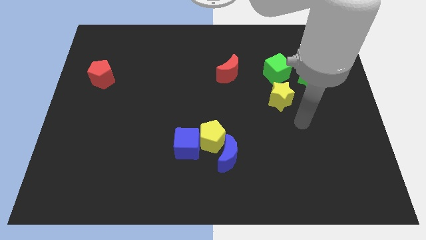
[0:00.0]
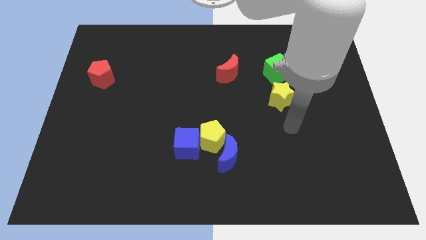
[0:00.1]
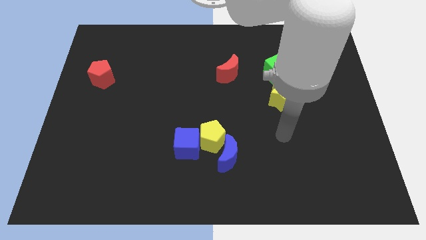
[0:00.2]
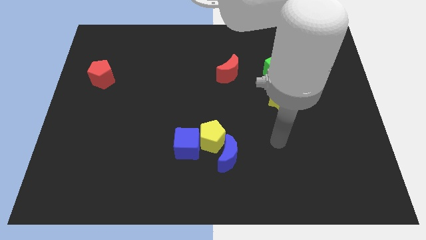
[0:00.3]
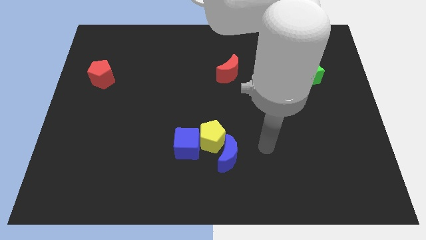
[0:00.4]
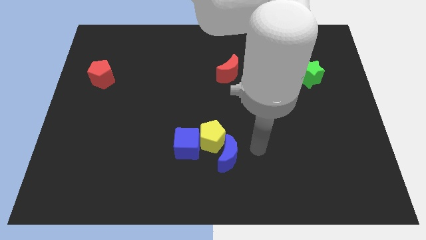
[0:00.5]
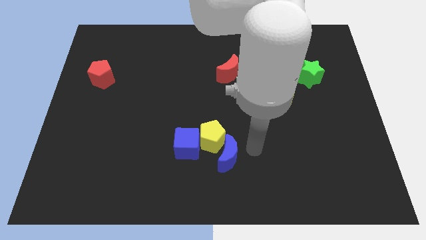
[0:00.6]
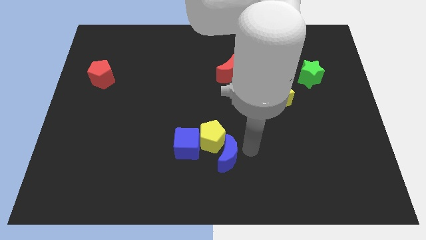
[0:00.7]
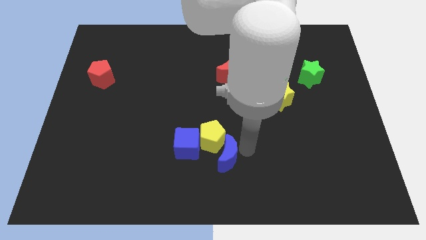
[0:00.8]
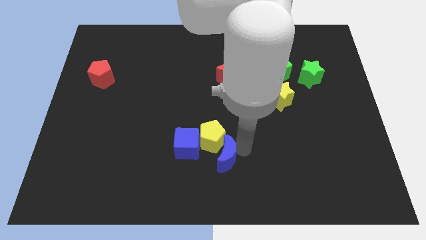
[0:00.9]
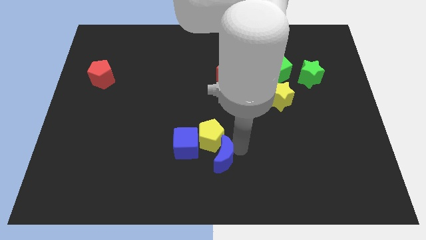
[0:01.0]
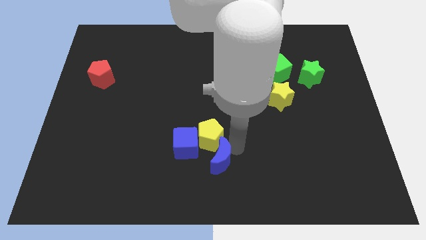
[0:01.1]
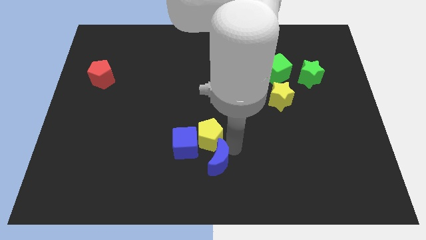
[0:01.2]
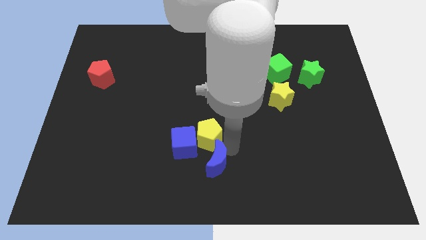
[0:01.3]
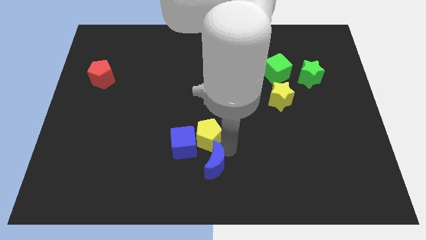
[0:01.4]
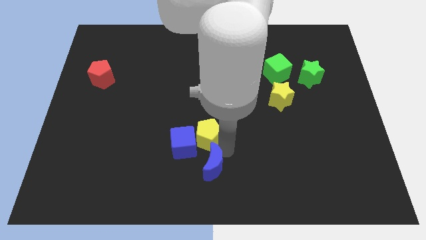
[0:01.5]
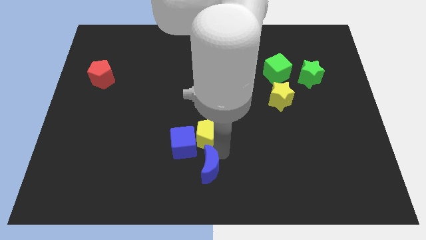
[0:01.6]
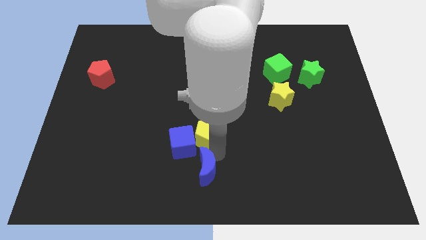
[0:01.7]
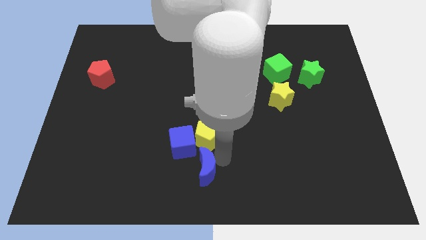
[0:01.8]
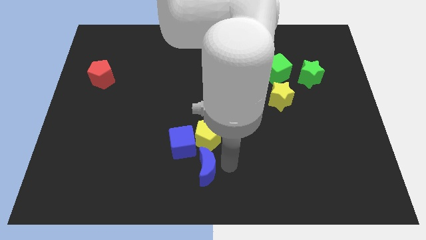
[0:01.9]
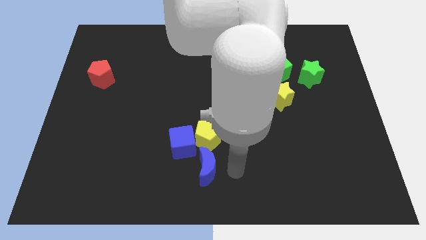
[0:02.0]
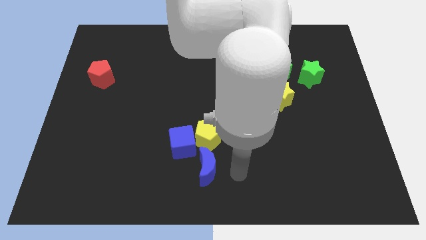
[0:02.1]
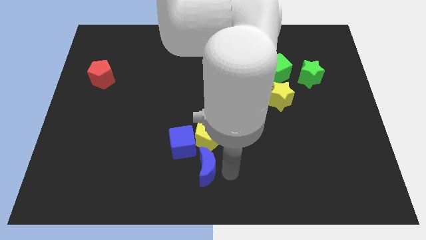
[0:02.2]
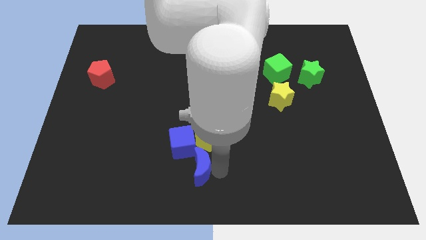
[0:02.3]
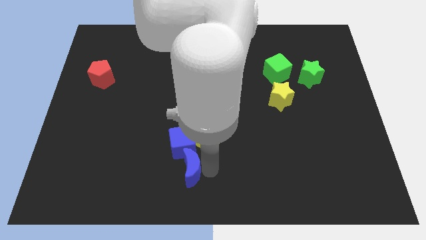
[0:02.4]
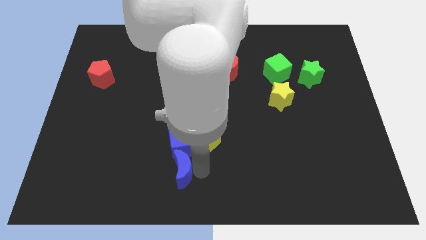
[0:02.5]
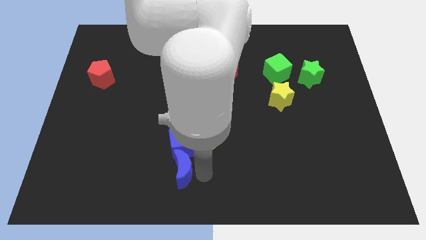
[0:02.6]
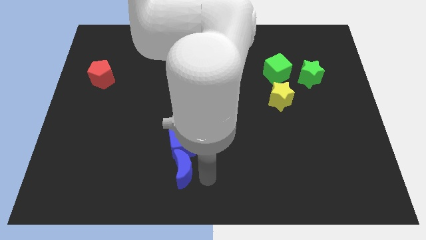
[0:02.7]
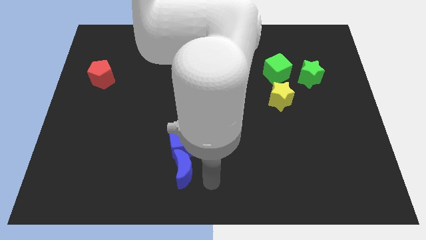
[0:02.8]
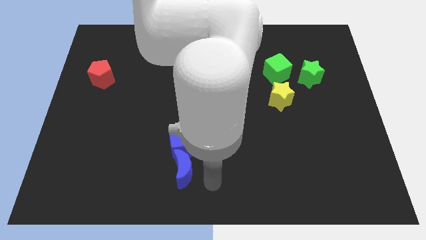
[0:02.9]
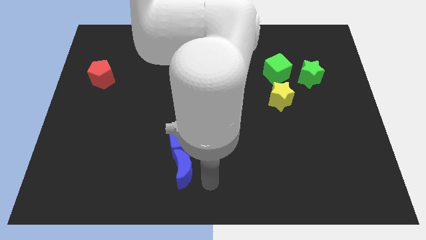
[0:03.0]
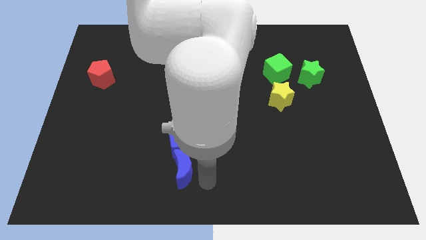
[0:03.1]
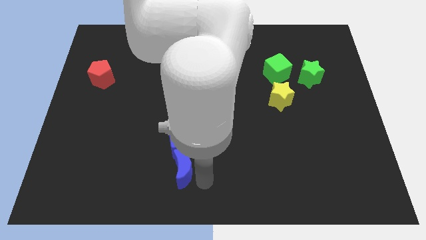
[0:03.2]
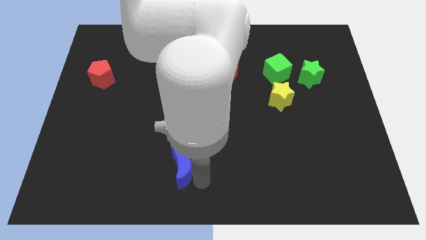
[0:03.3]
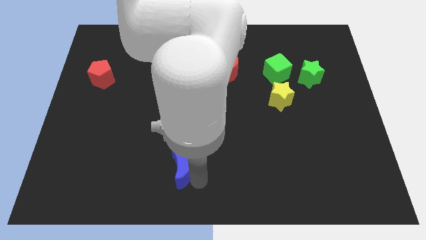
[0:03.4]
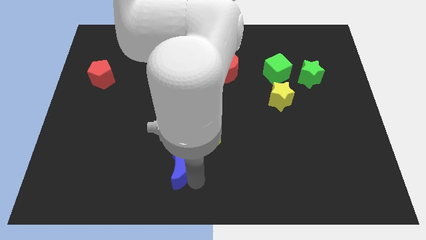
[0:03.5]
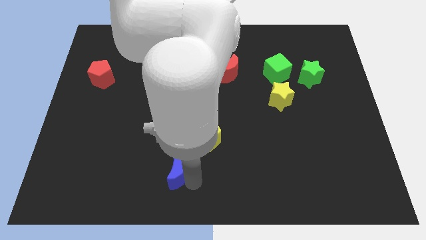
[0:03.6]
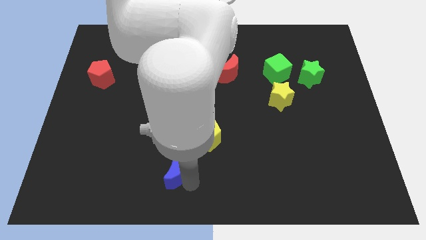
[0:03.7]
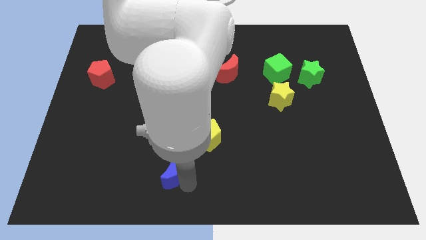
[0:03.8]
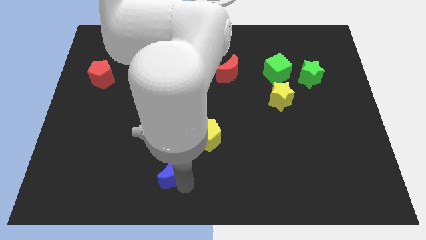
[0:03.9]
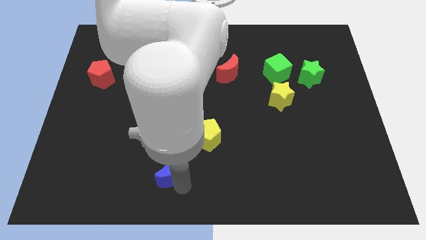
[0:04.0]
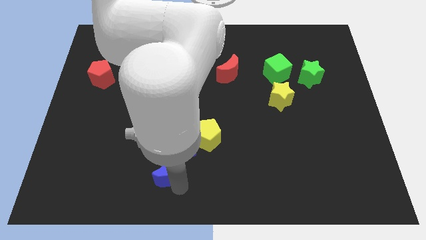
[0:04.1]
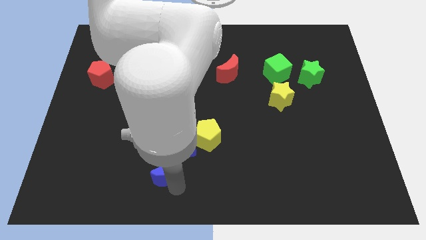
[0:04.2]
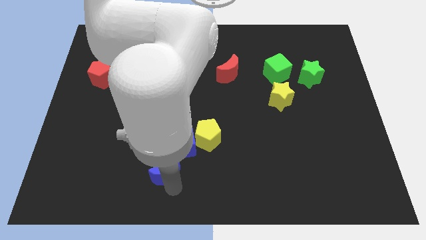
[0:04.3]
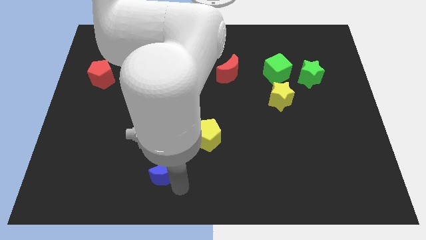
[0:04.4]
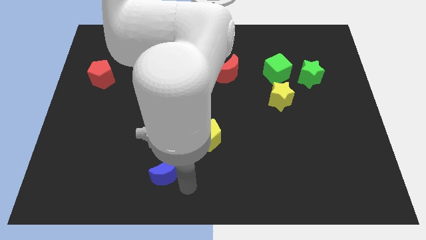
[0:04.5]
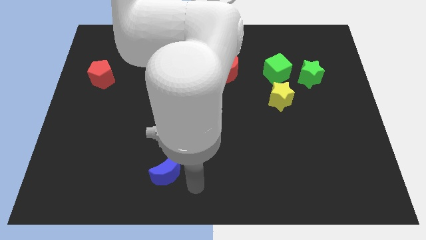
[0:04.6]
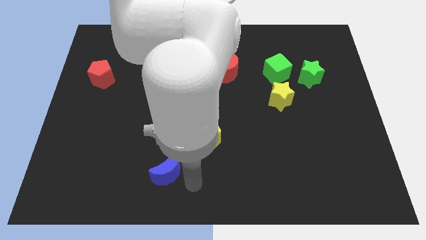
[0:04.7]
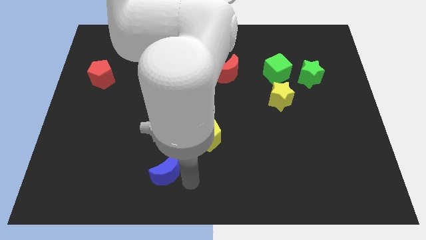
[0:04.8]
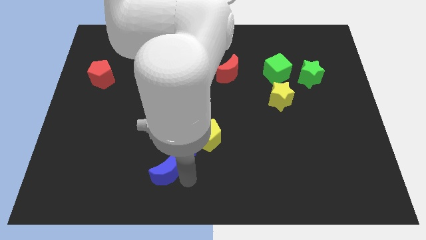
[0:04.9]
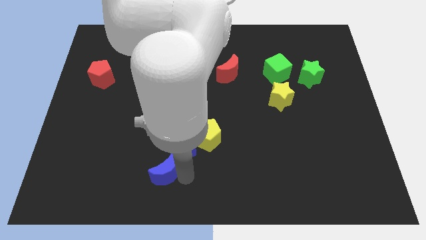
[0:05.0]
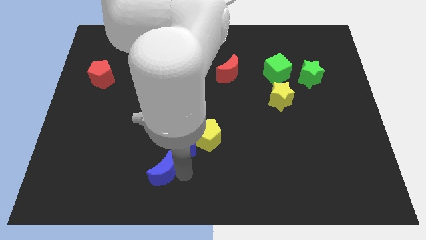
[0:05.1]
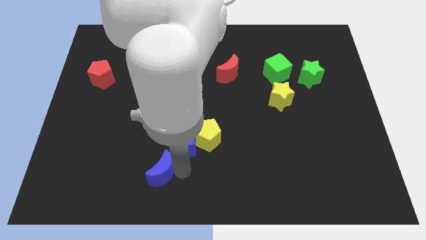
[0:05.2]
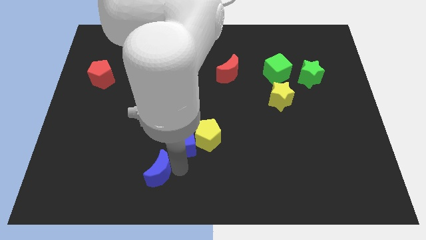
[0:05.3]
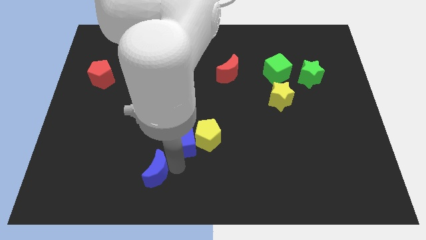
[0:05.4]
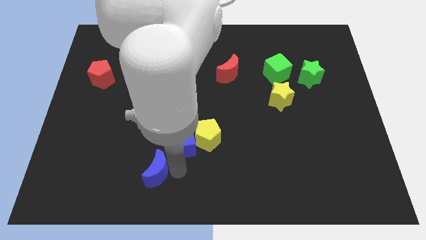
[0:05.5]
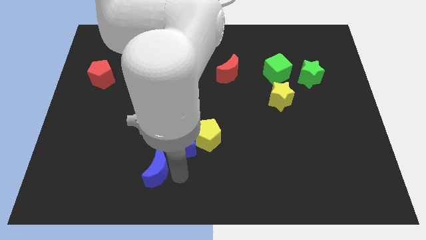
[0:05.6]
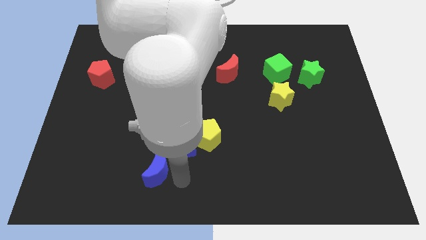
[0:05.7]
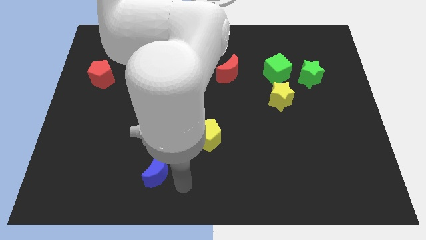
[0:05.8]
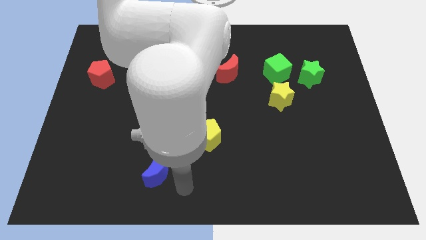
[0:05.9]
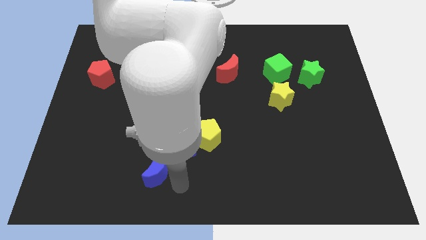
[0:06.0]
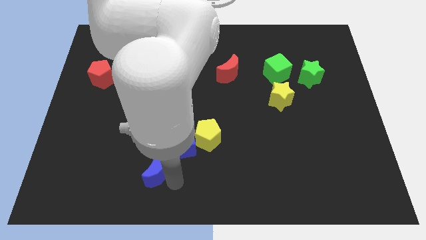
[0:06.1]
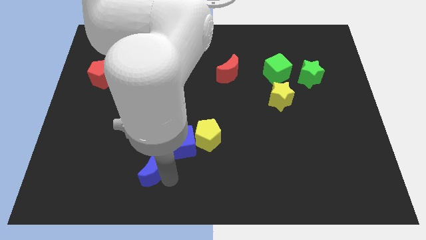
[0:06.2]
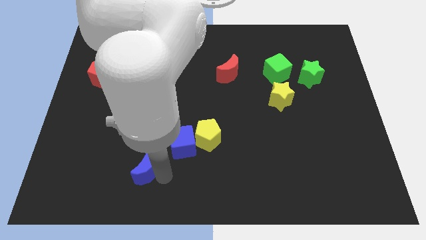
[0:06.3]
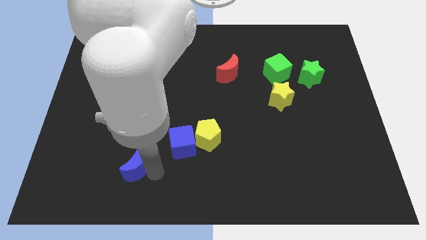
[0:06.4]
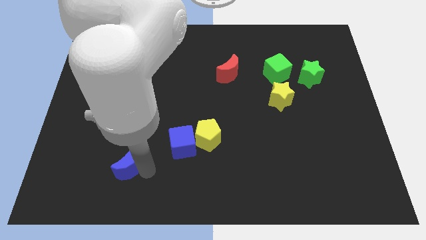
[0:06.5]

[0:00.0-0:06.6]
slide the blue moon left

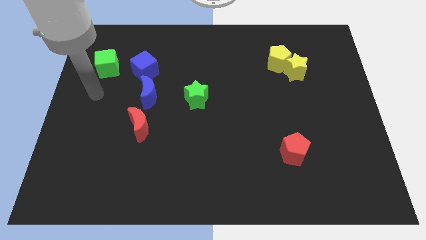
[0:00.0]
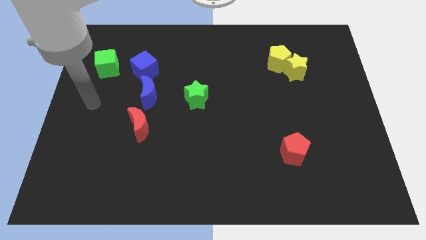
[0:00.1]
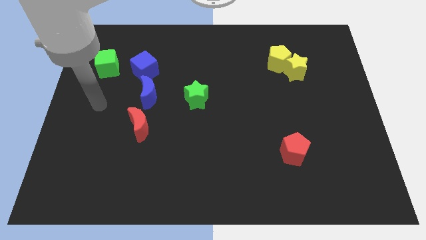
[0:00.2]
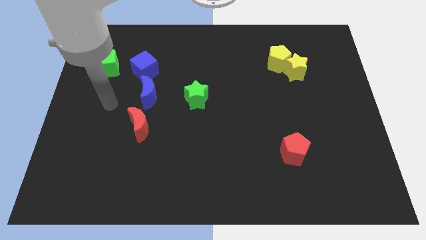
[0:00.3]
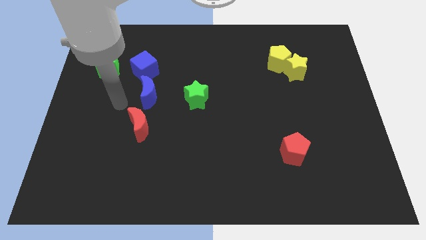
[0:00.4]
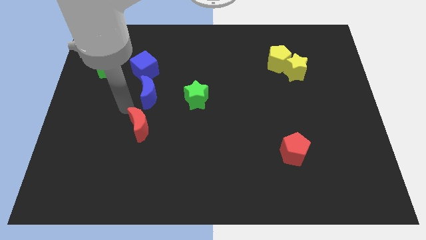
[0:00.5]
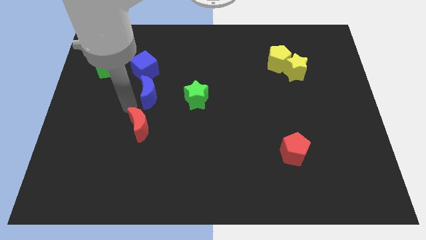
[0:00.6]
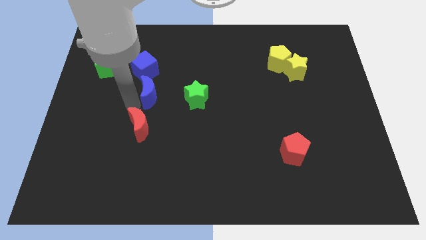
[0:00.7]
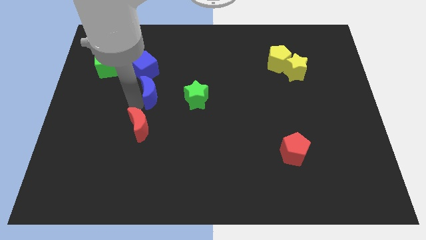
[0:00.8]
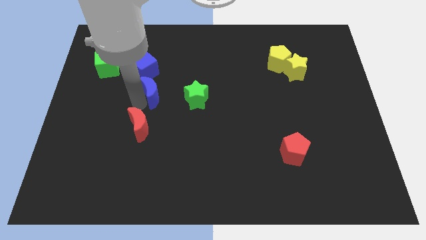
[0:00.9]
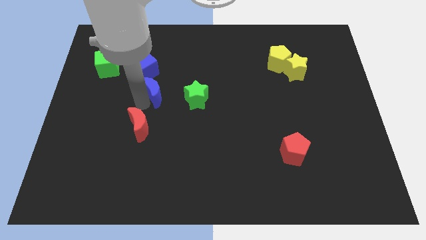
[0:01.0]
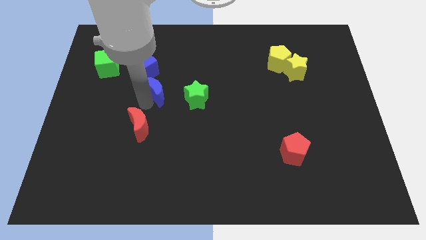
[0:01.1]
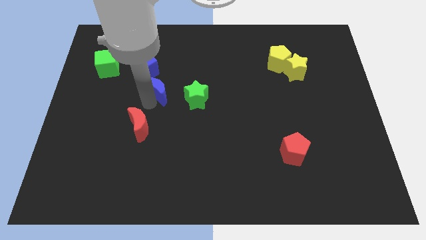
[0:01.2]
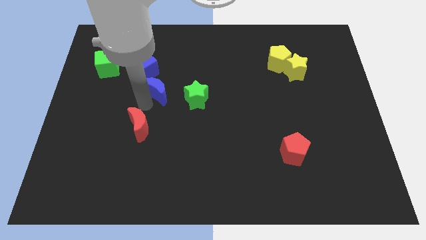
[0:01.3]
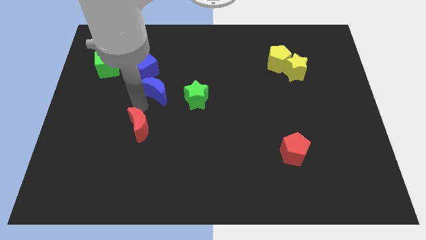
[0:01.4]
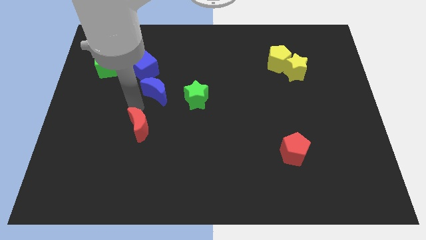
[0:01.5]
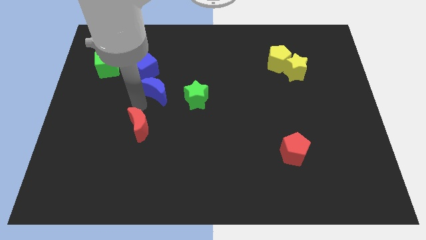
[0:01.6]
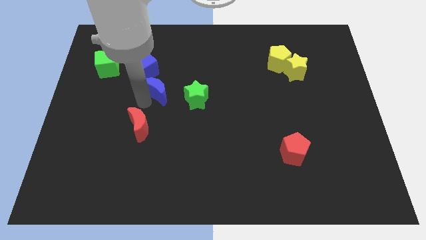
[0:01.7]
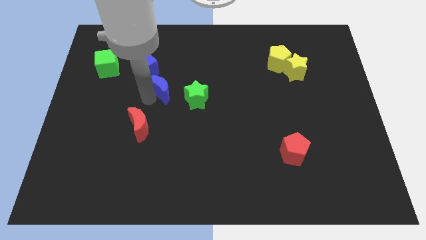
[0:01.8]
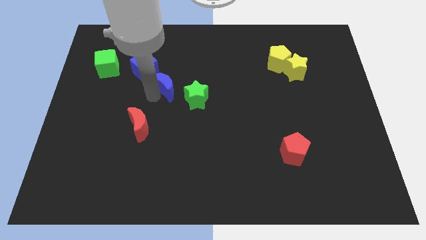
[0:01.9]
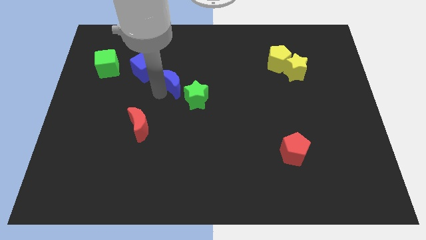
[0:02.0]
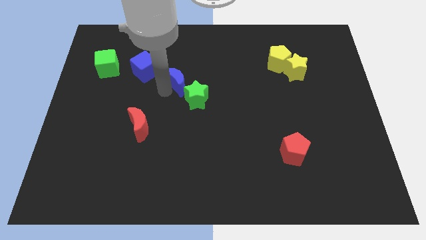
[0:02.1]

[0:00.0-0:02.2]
slide the blue moon a little bit upwards and right diagonally
